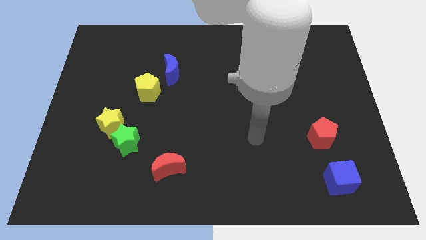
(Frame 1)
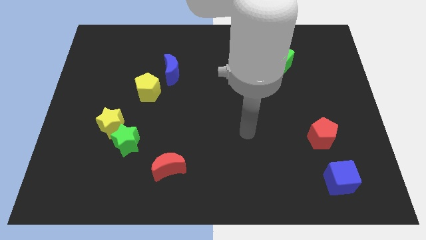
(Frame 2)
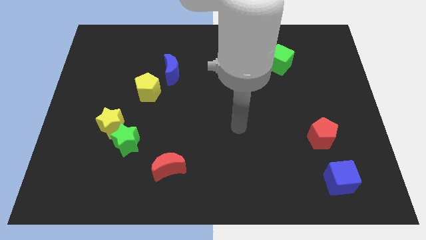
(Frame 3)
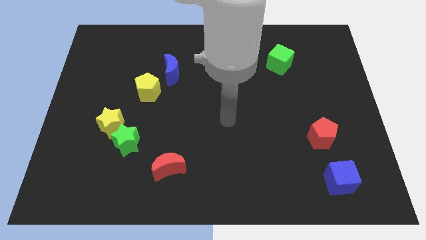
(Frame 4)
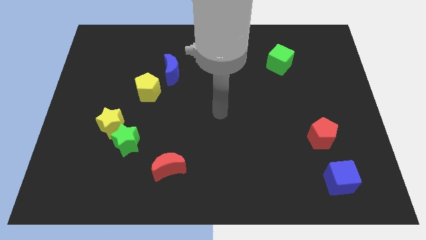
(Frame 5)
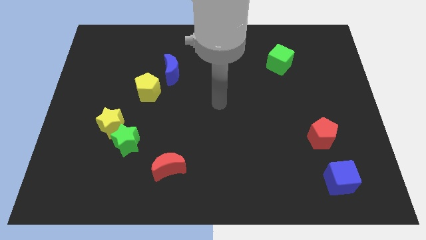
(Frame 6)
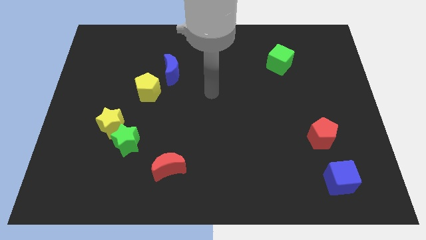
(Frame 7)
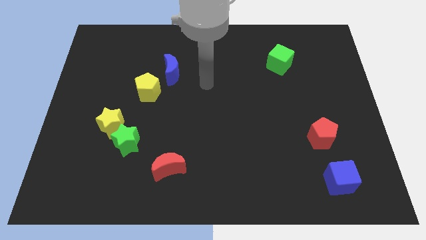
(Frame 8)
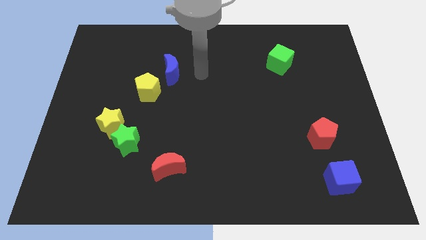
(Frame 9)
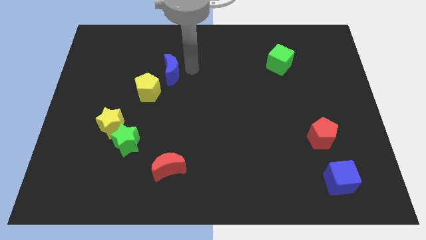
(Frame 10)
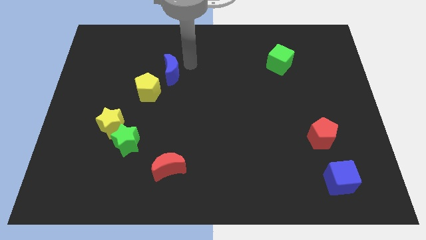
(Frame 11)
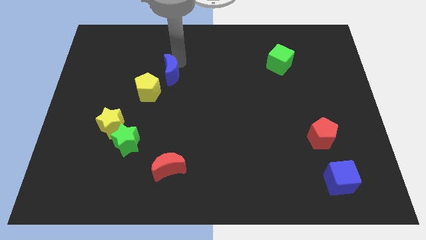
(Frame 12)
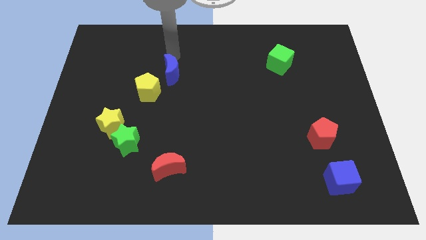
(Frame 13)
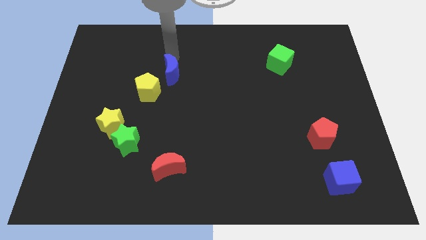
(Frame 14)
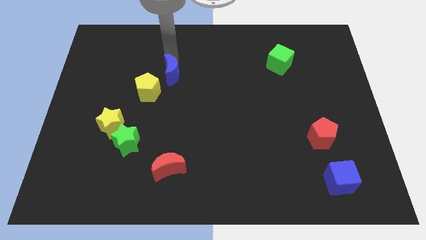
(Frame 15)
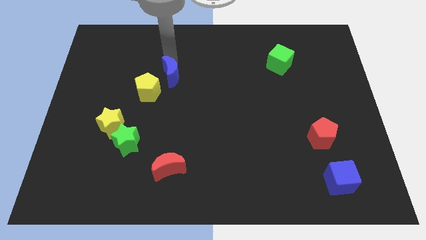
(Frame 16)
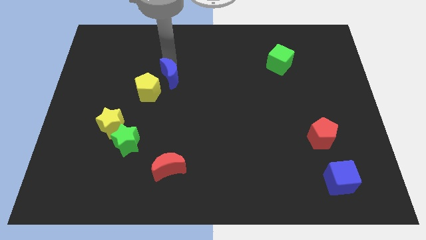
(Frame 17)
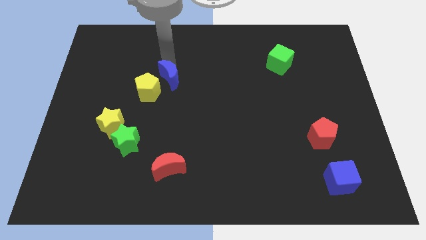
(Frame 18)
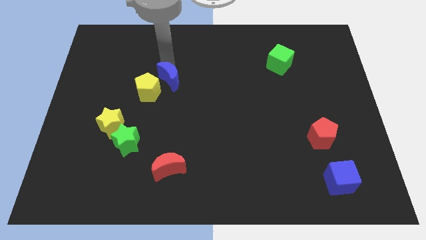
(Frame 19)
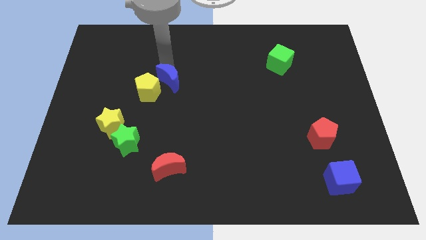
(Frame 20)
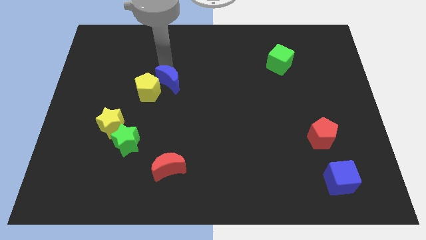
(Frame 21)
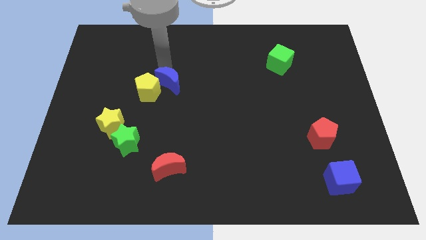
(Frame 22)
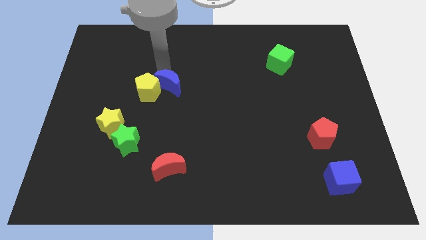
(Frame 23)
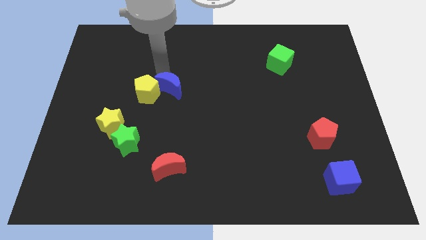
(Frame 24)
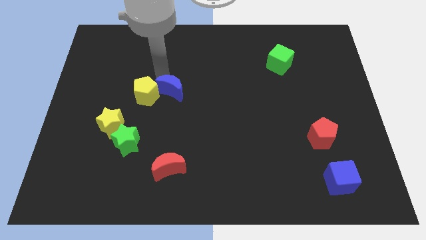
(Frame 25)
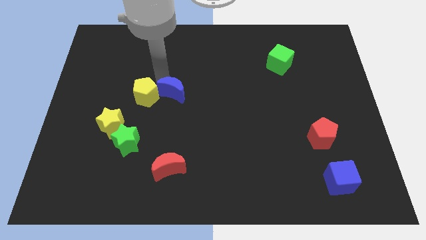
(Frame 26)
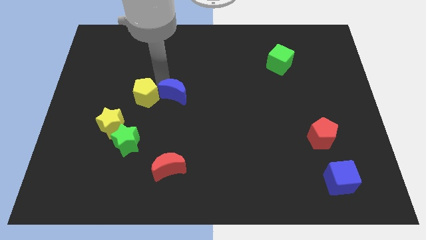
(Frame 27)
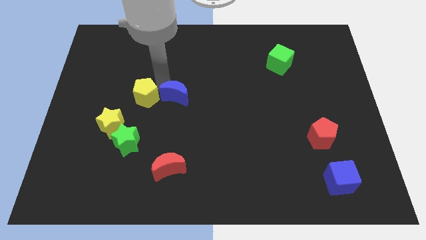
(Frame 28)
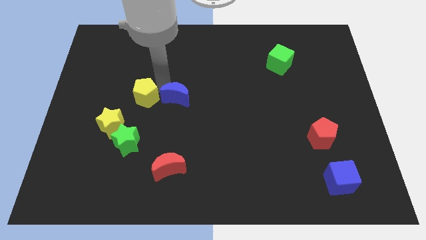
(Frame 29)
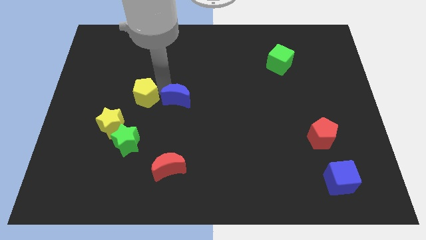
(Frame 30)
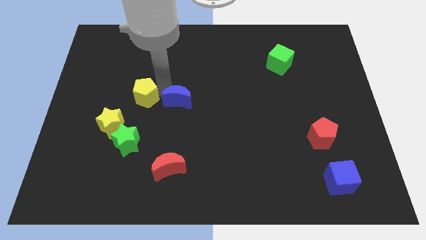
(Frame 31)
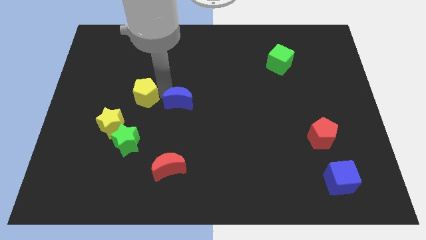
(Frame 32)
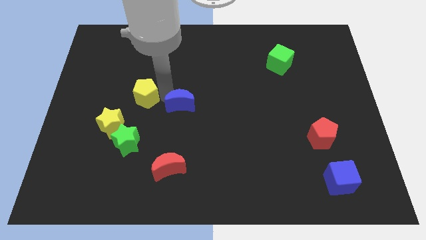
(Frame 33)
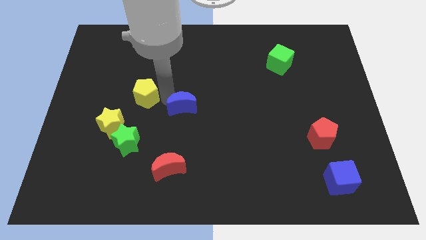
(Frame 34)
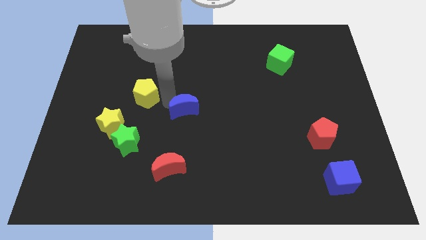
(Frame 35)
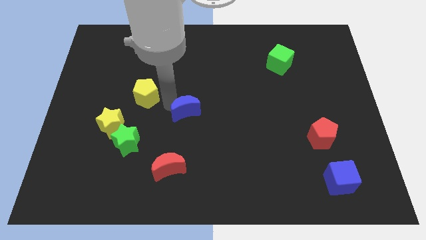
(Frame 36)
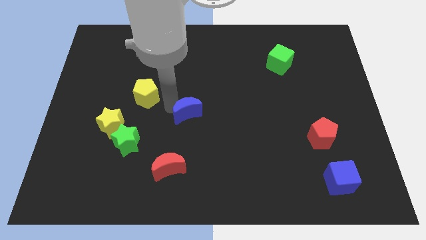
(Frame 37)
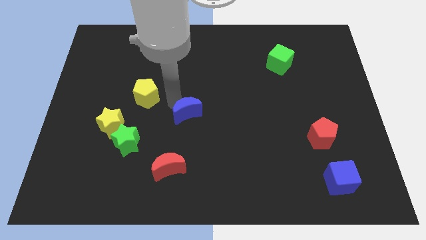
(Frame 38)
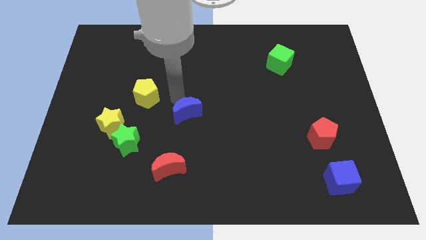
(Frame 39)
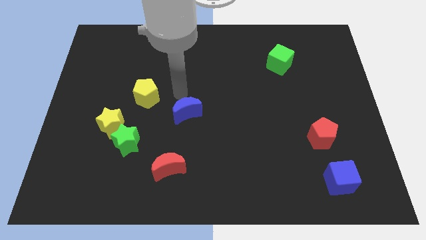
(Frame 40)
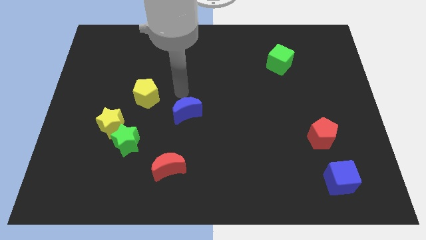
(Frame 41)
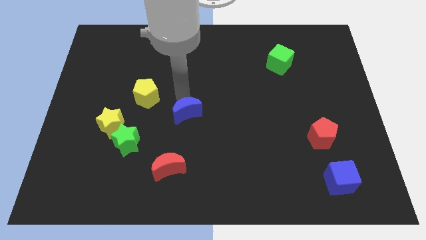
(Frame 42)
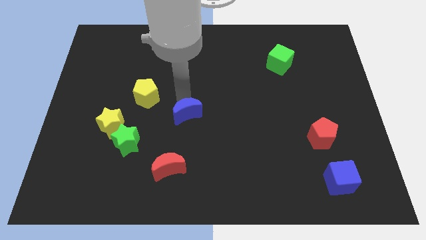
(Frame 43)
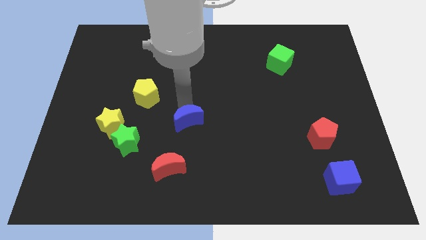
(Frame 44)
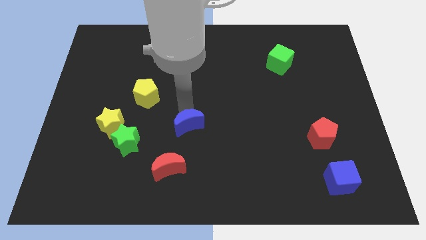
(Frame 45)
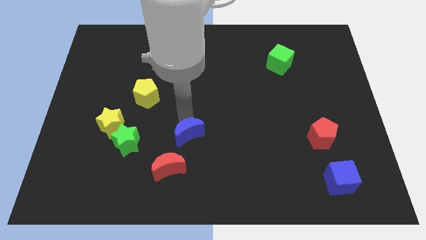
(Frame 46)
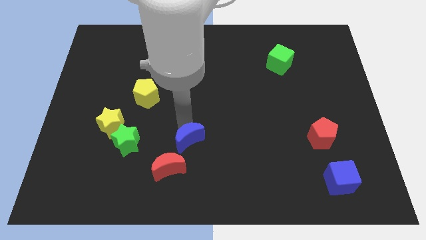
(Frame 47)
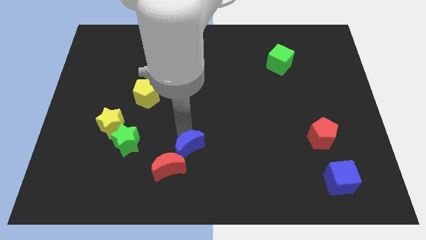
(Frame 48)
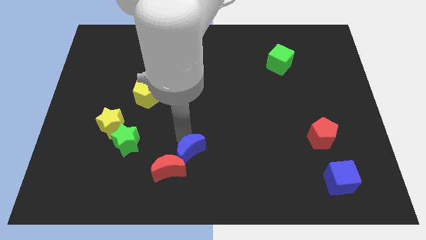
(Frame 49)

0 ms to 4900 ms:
put the blue moon right of the red moon

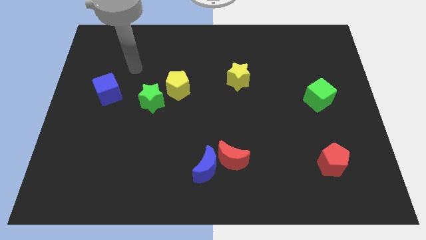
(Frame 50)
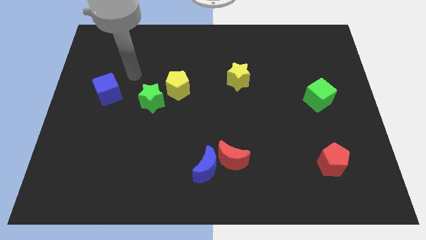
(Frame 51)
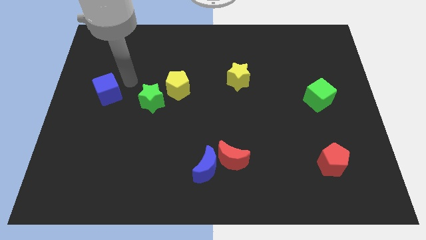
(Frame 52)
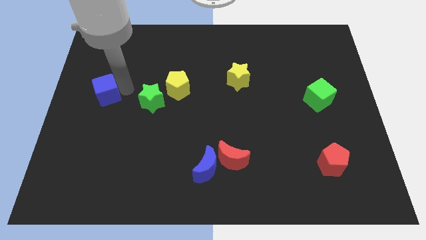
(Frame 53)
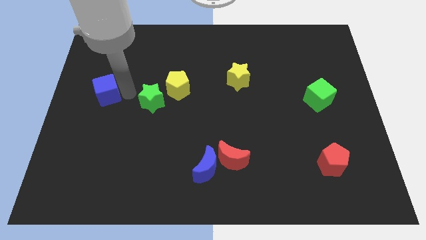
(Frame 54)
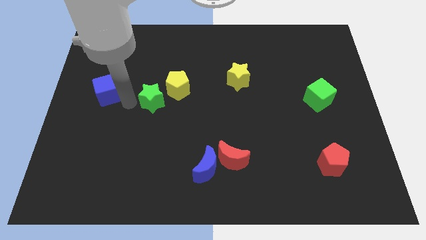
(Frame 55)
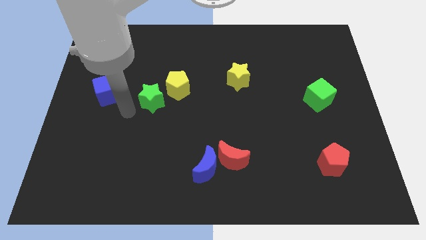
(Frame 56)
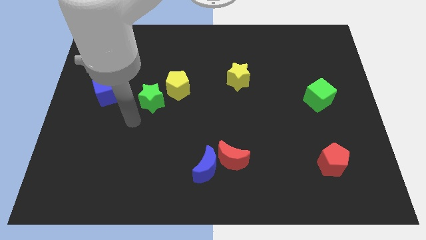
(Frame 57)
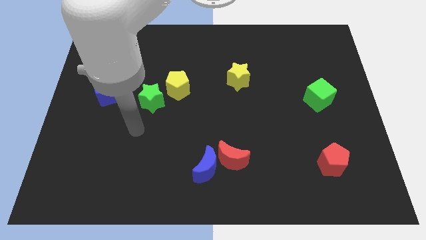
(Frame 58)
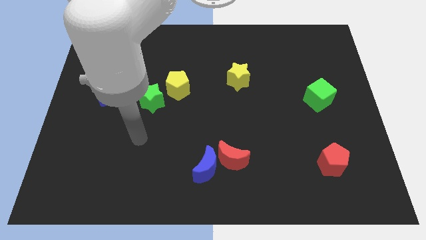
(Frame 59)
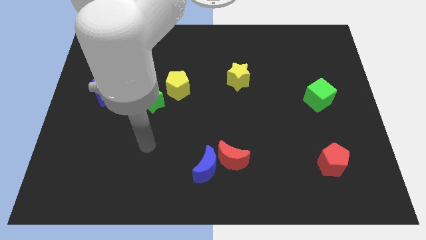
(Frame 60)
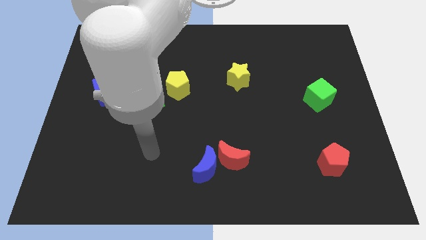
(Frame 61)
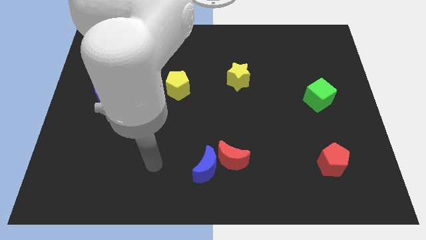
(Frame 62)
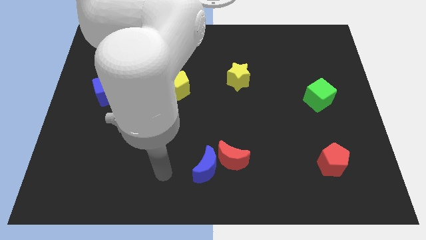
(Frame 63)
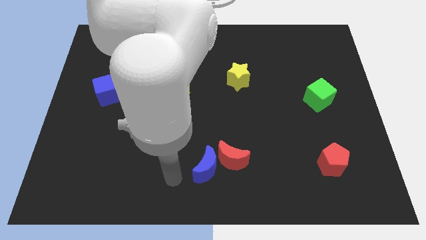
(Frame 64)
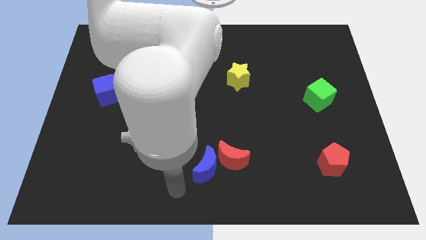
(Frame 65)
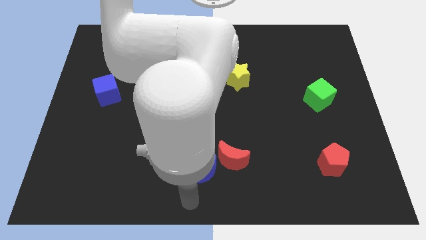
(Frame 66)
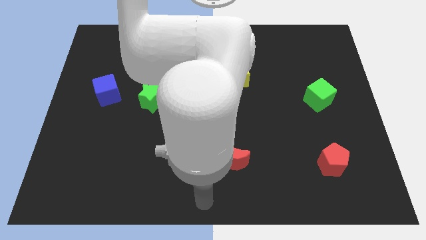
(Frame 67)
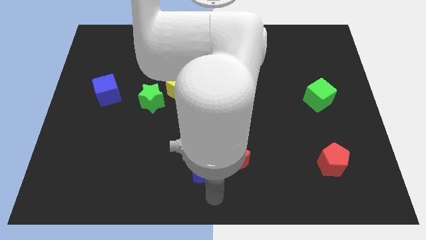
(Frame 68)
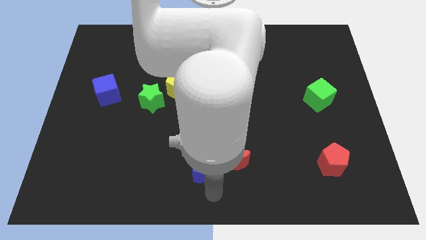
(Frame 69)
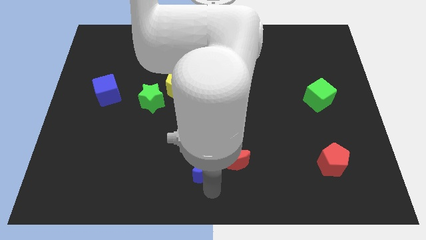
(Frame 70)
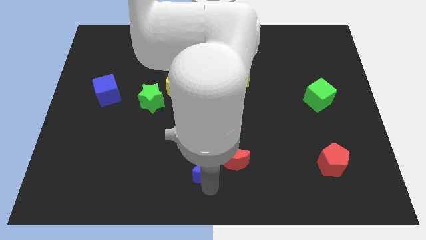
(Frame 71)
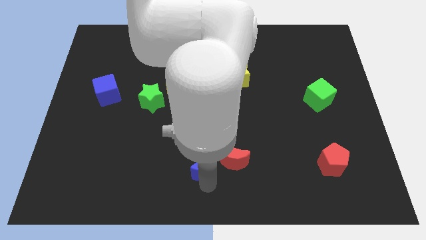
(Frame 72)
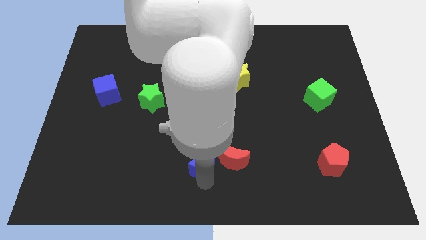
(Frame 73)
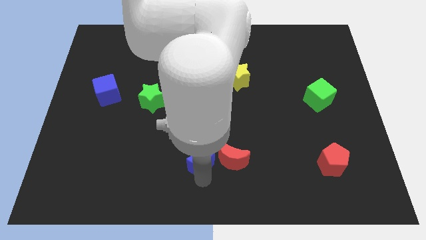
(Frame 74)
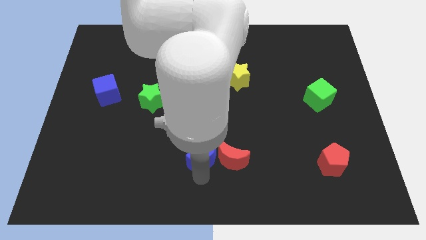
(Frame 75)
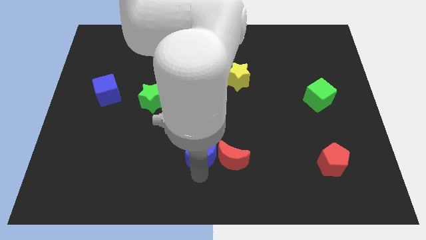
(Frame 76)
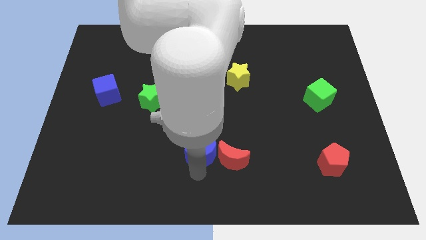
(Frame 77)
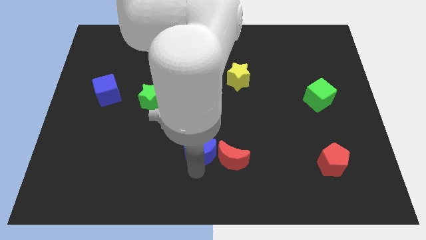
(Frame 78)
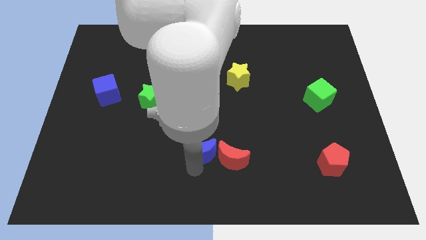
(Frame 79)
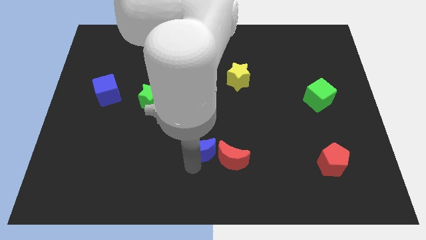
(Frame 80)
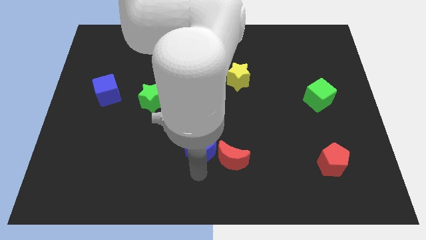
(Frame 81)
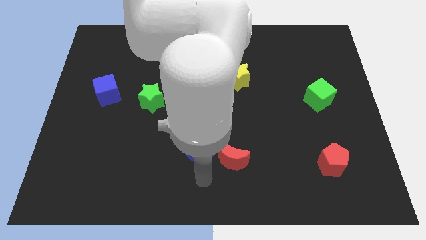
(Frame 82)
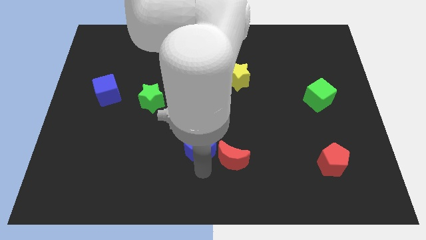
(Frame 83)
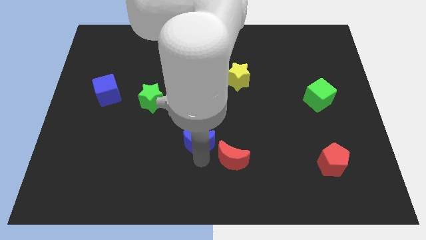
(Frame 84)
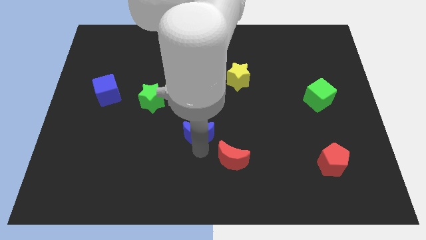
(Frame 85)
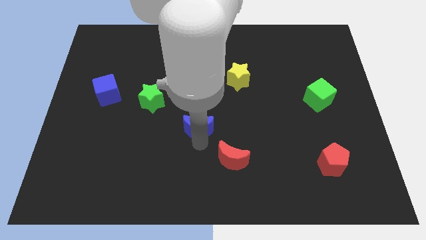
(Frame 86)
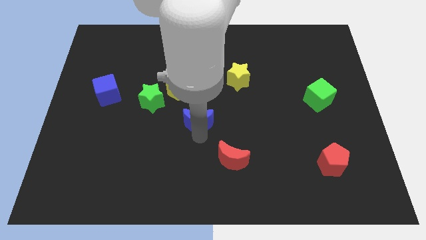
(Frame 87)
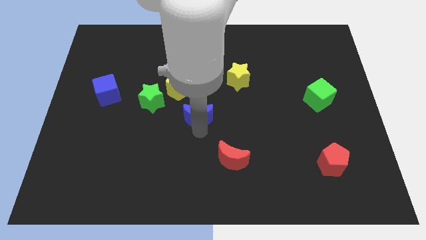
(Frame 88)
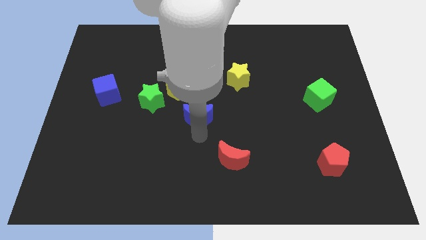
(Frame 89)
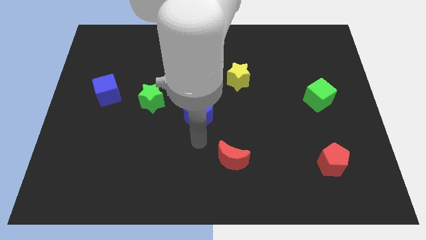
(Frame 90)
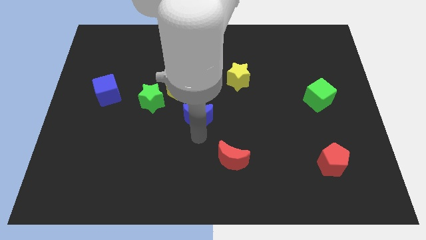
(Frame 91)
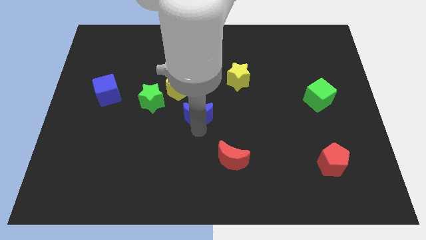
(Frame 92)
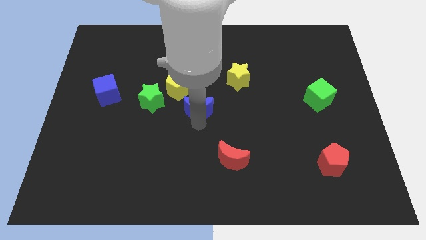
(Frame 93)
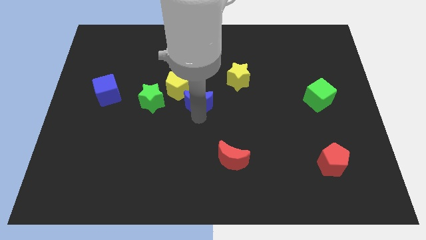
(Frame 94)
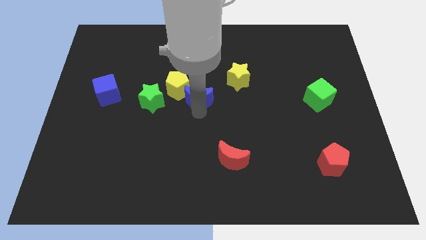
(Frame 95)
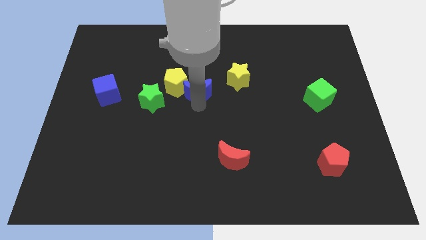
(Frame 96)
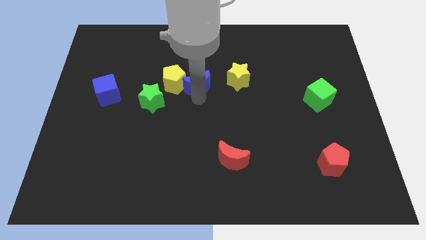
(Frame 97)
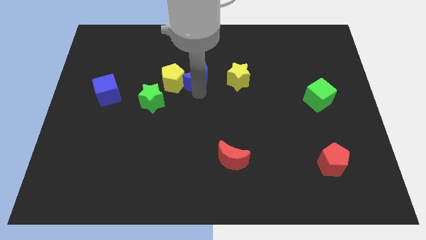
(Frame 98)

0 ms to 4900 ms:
move the blue moon diagonally up and to the right of the yellow pentagon
